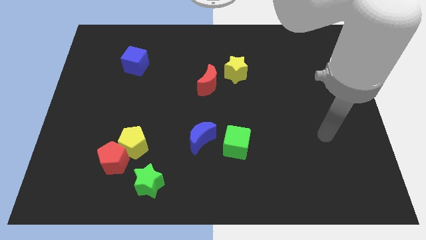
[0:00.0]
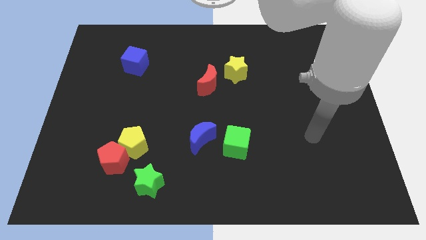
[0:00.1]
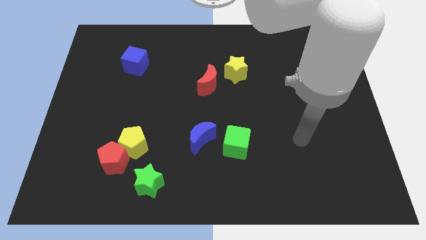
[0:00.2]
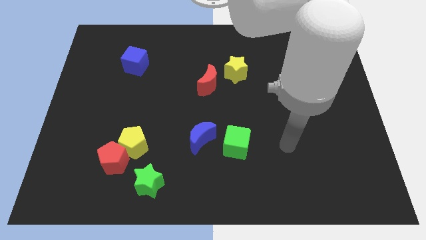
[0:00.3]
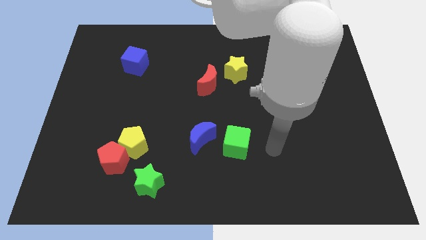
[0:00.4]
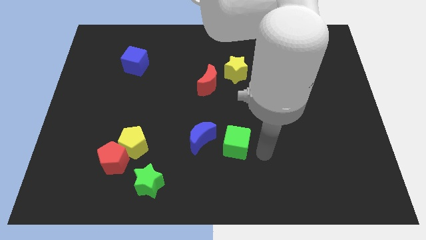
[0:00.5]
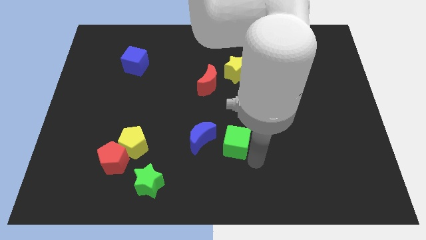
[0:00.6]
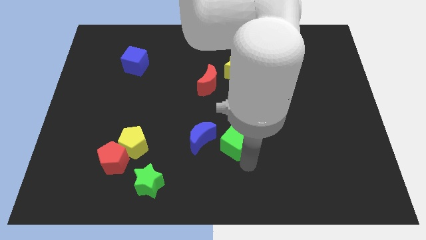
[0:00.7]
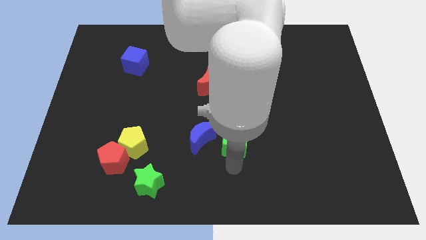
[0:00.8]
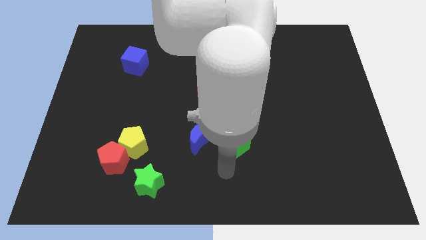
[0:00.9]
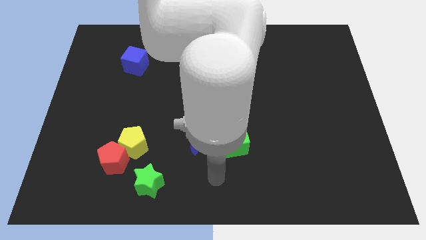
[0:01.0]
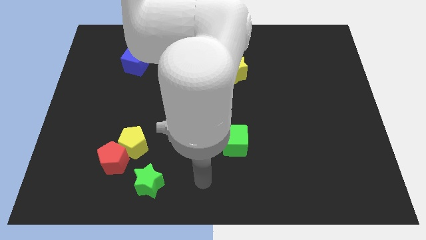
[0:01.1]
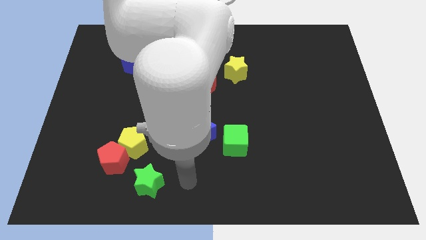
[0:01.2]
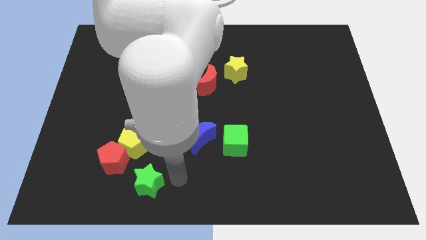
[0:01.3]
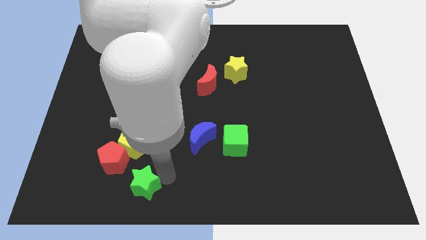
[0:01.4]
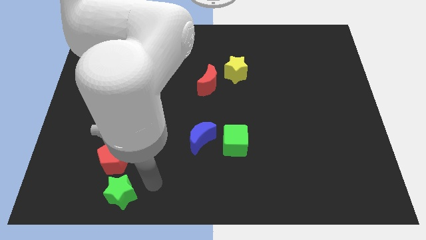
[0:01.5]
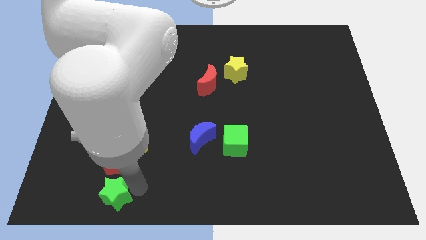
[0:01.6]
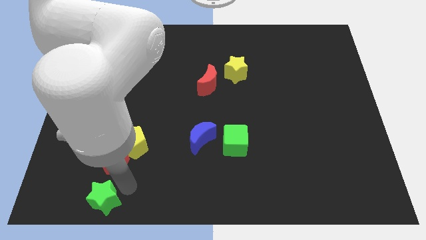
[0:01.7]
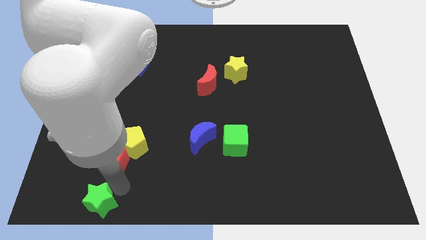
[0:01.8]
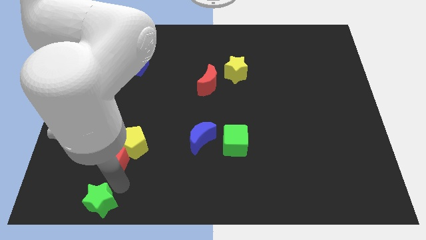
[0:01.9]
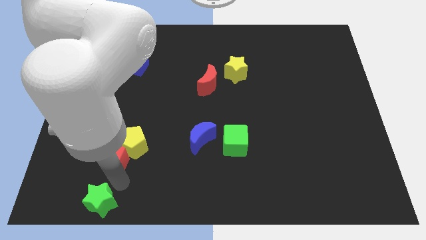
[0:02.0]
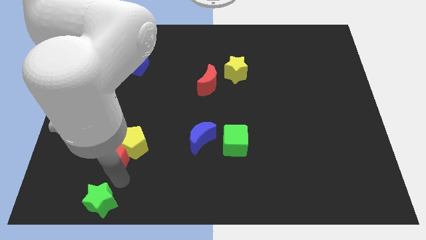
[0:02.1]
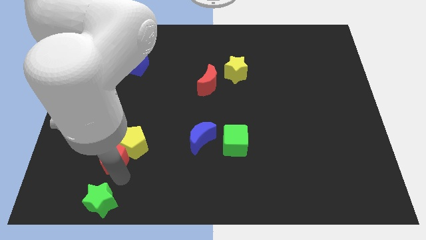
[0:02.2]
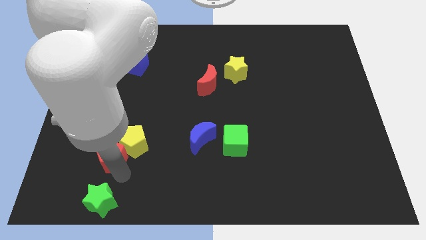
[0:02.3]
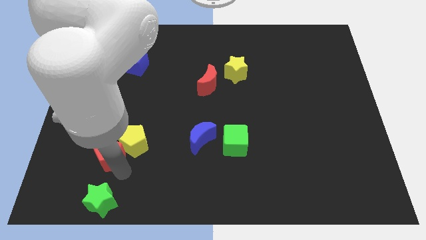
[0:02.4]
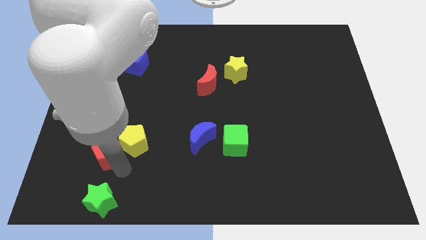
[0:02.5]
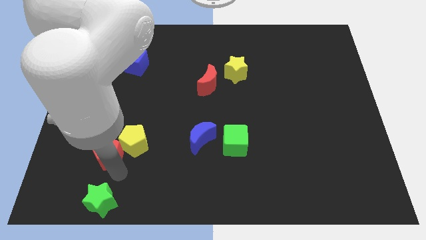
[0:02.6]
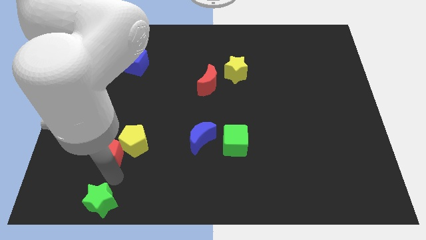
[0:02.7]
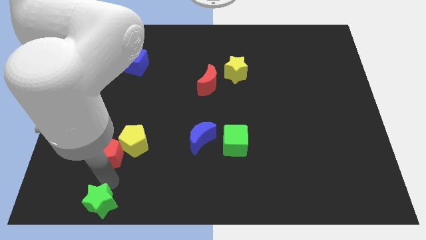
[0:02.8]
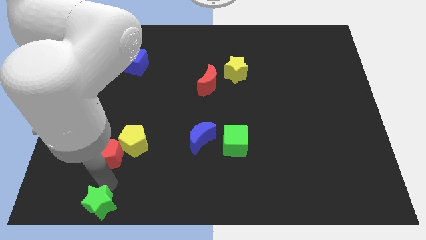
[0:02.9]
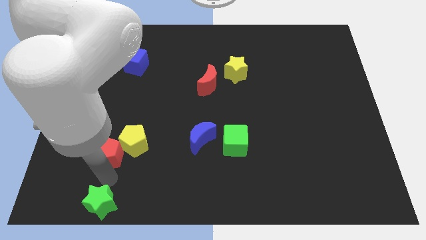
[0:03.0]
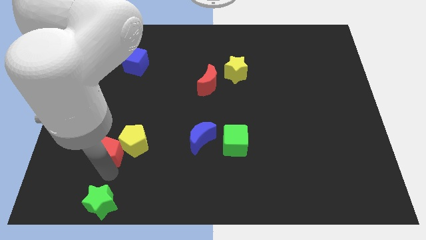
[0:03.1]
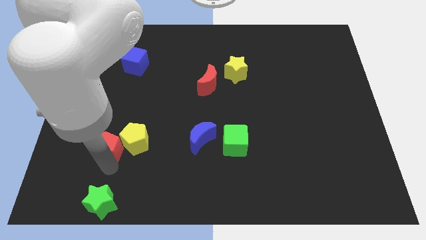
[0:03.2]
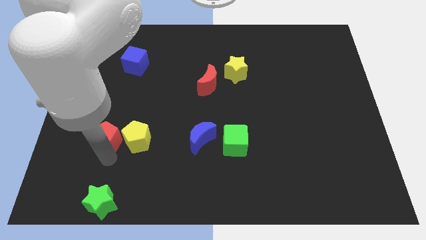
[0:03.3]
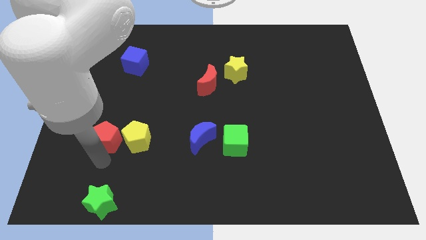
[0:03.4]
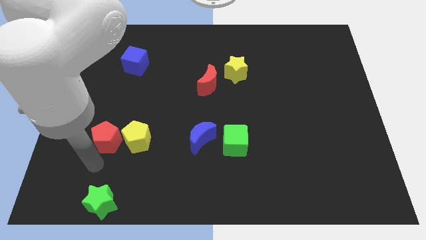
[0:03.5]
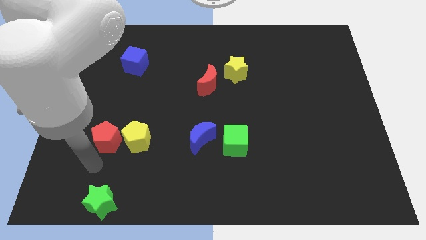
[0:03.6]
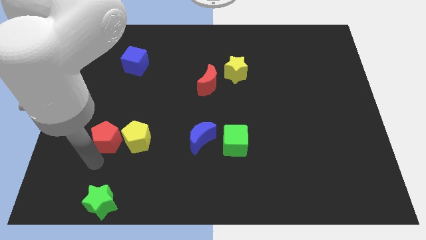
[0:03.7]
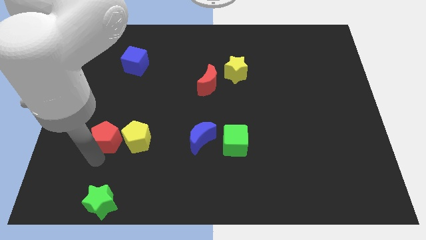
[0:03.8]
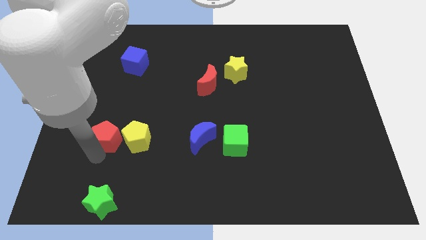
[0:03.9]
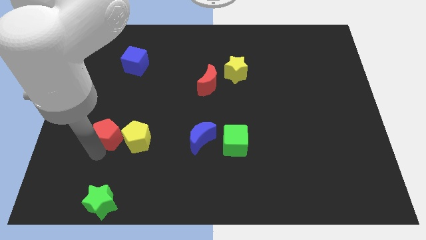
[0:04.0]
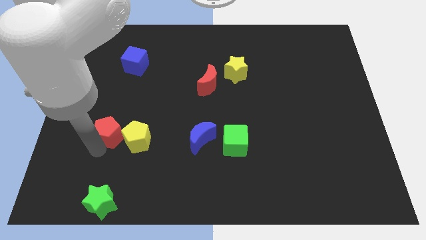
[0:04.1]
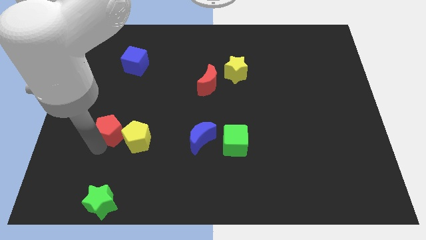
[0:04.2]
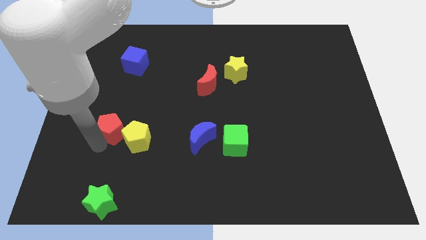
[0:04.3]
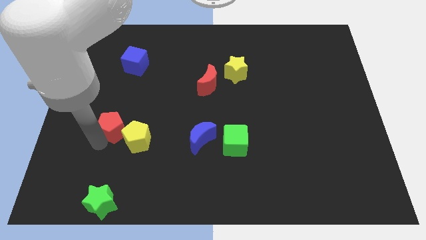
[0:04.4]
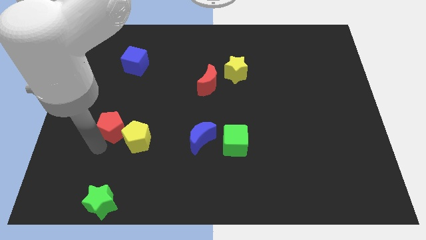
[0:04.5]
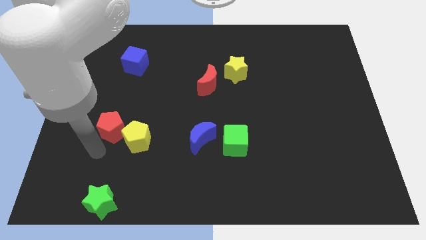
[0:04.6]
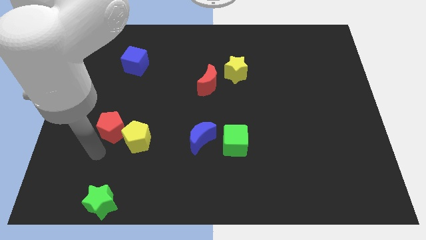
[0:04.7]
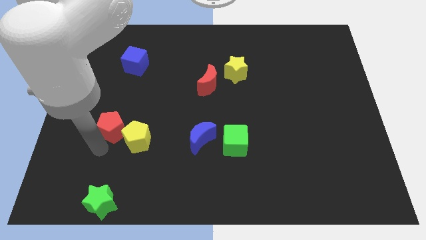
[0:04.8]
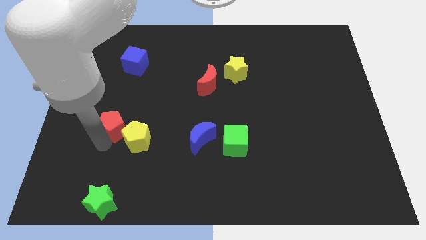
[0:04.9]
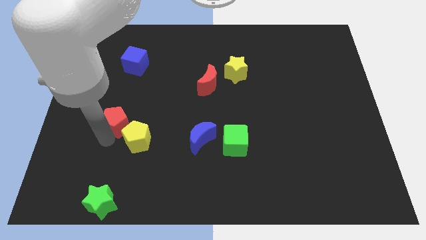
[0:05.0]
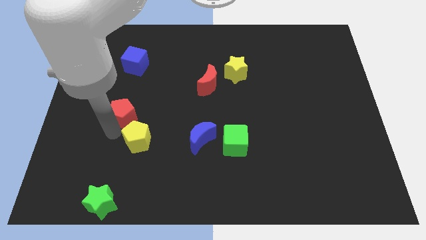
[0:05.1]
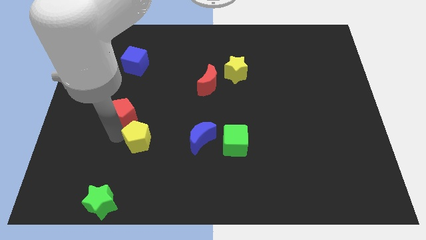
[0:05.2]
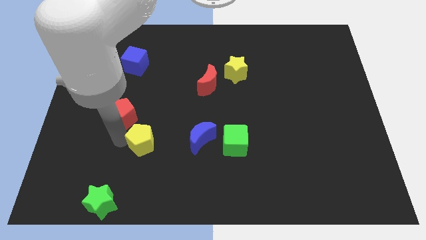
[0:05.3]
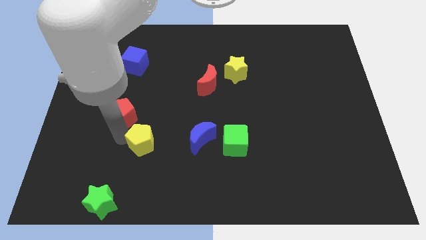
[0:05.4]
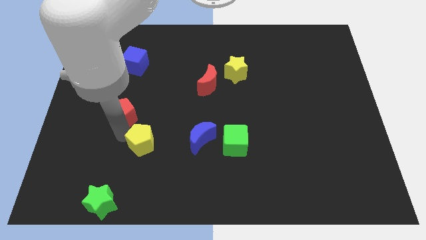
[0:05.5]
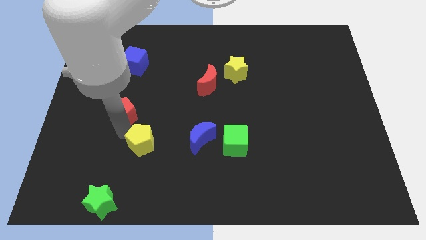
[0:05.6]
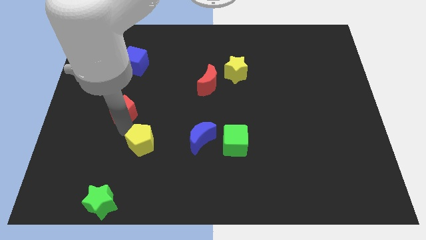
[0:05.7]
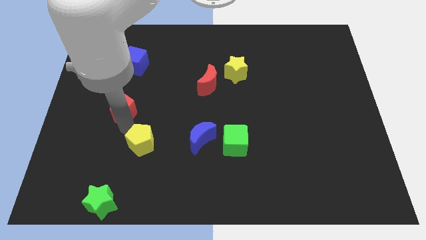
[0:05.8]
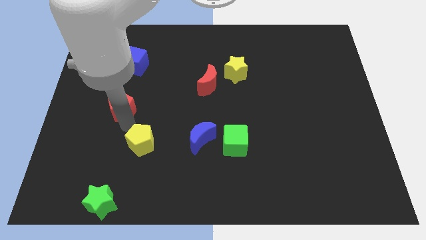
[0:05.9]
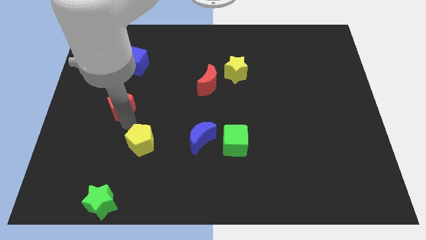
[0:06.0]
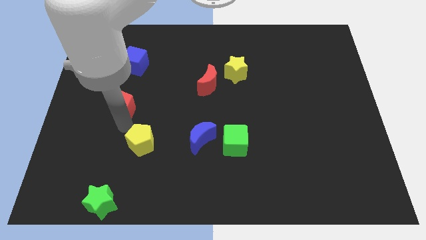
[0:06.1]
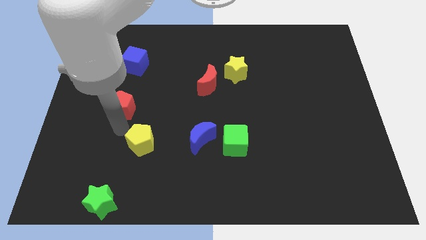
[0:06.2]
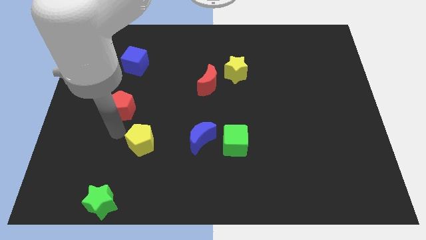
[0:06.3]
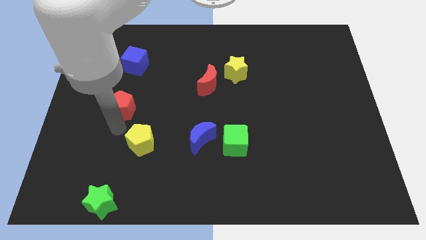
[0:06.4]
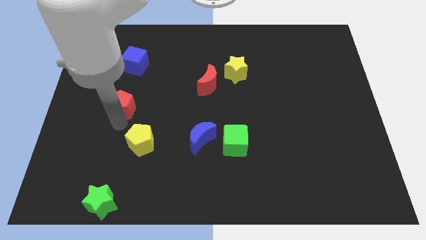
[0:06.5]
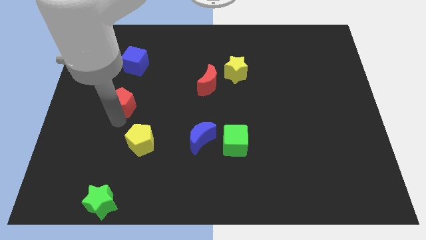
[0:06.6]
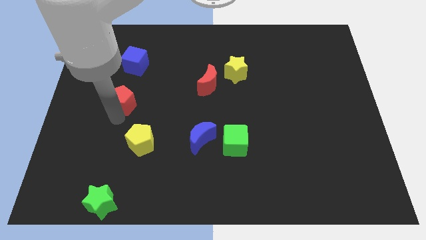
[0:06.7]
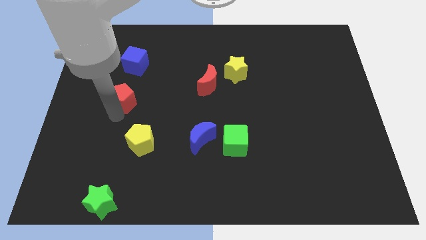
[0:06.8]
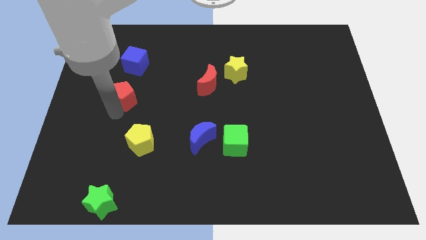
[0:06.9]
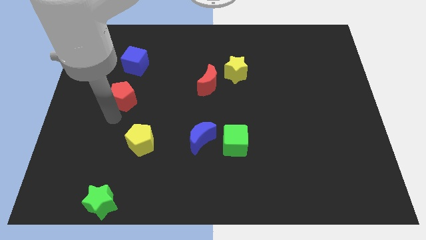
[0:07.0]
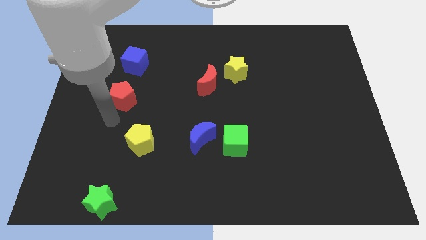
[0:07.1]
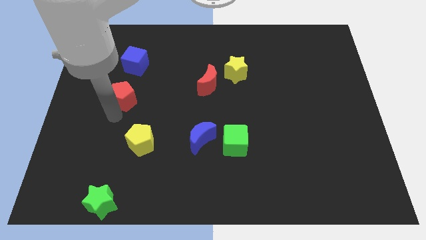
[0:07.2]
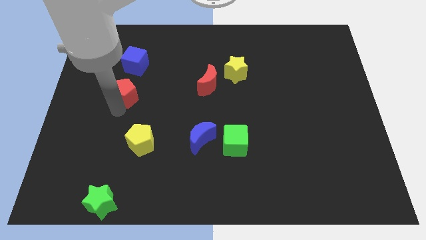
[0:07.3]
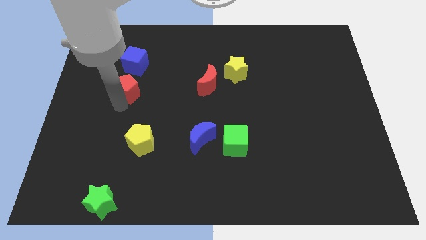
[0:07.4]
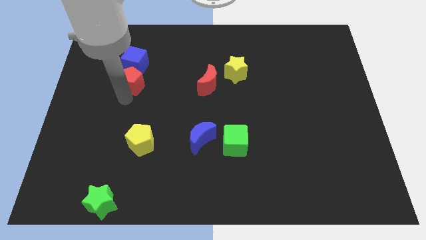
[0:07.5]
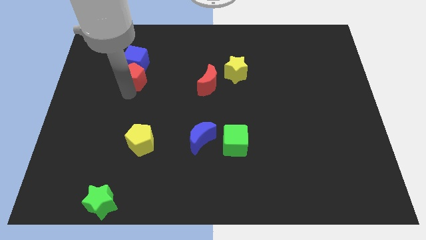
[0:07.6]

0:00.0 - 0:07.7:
put the red pentagon close to the blue cube
